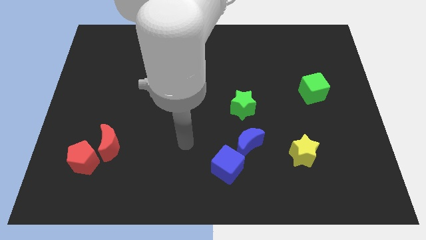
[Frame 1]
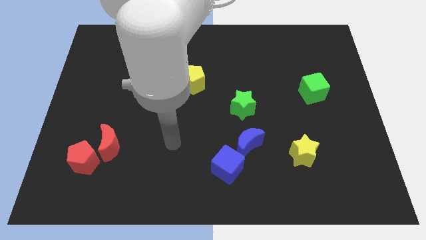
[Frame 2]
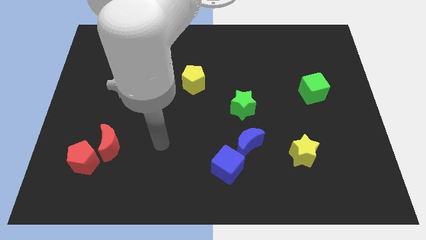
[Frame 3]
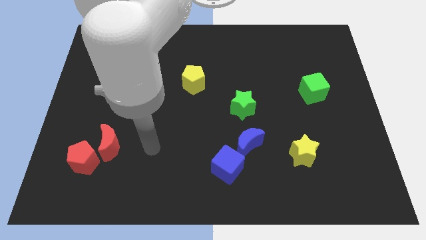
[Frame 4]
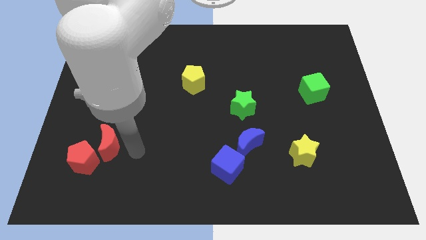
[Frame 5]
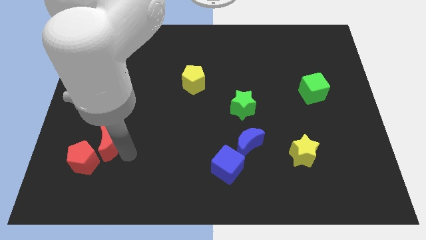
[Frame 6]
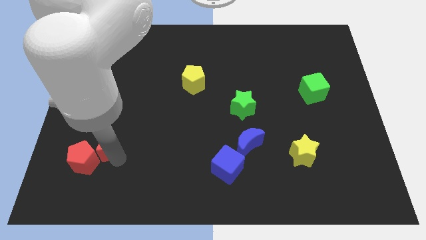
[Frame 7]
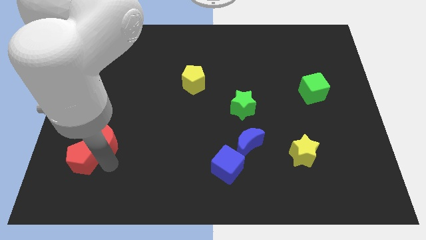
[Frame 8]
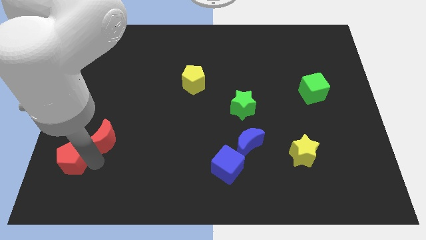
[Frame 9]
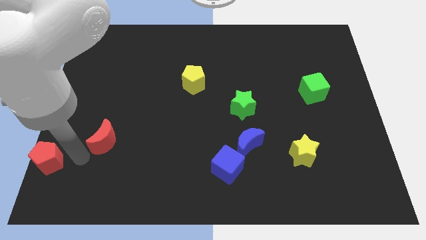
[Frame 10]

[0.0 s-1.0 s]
separate the red moon from the red pentagon

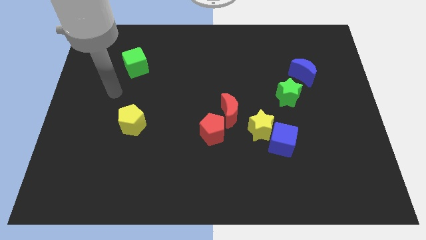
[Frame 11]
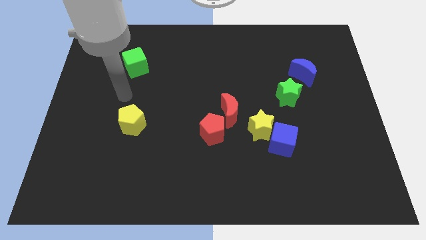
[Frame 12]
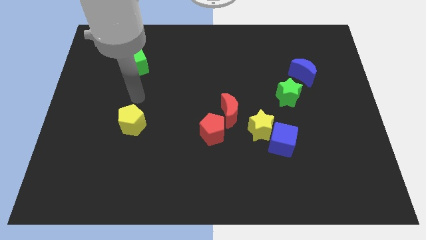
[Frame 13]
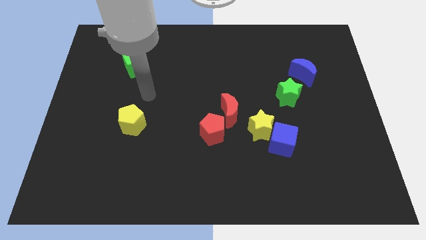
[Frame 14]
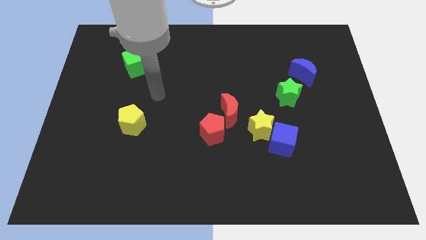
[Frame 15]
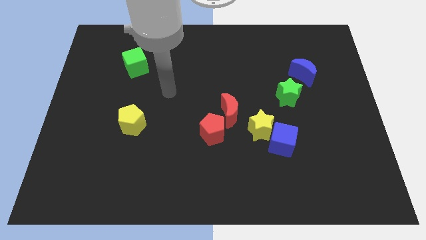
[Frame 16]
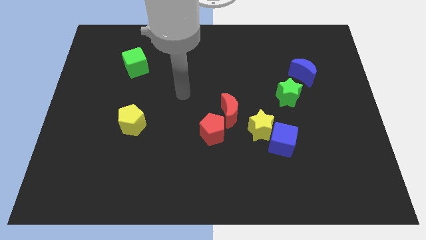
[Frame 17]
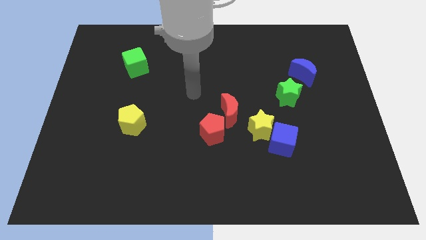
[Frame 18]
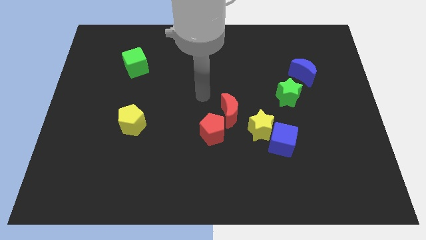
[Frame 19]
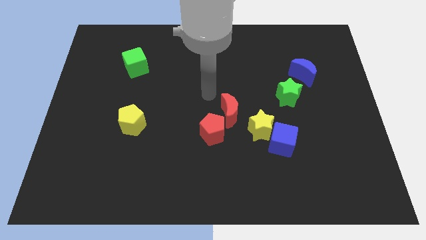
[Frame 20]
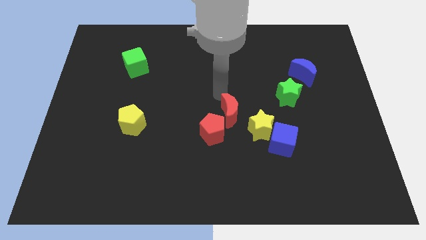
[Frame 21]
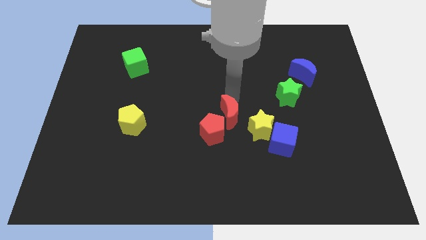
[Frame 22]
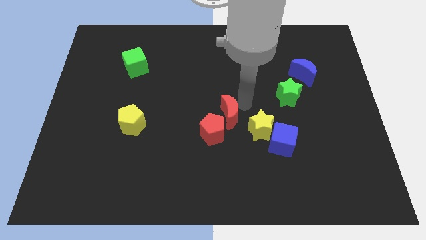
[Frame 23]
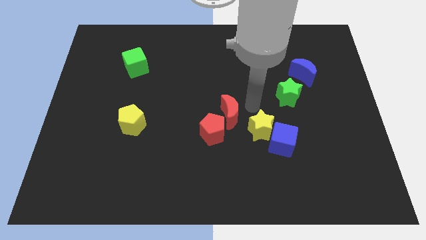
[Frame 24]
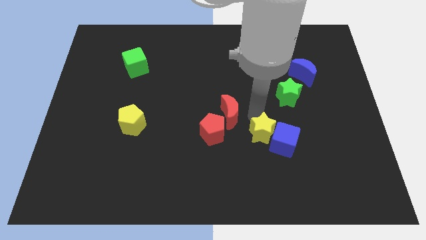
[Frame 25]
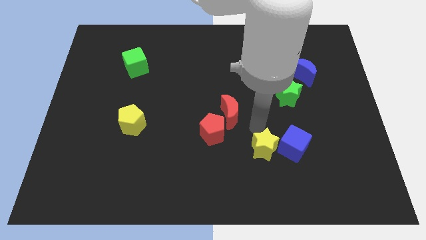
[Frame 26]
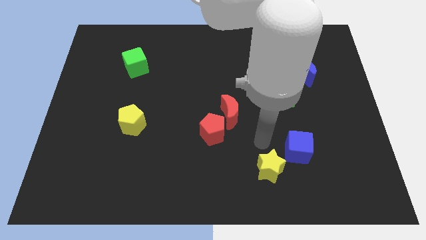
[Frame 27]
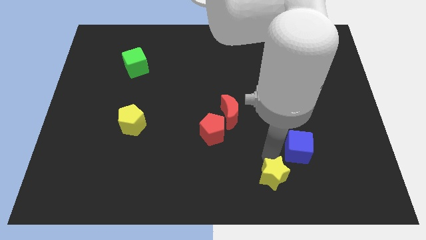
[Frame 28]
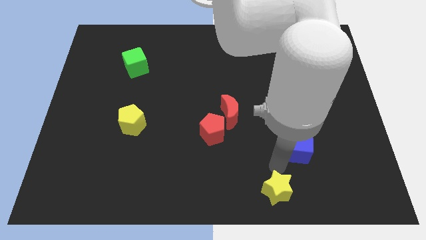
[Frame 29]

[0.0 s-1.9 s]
separate the blue cube from the yellow star

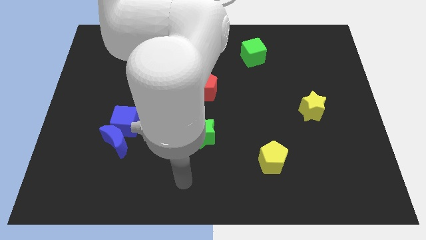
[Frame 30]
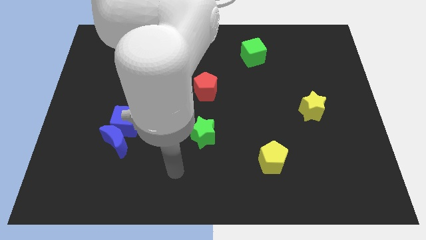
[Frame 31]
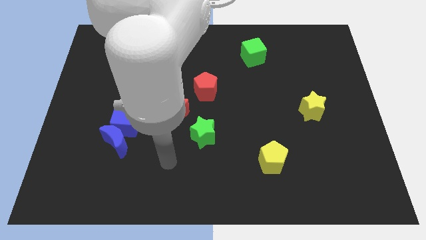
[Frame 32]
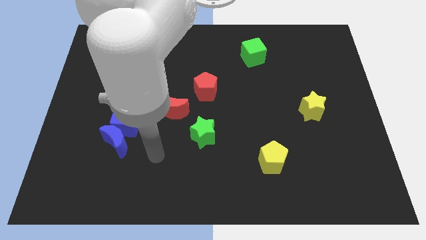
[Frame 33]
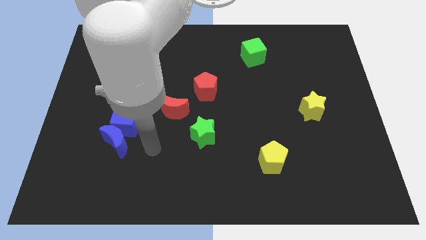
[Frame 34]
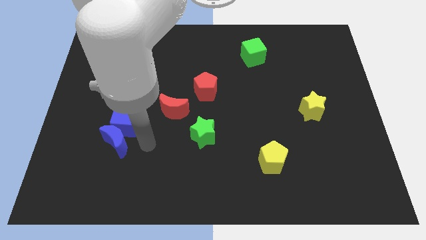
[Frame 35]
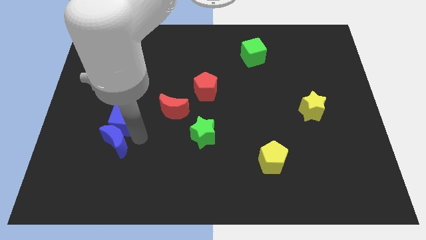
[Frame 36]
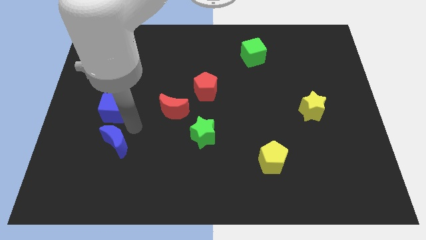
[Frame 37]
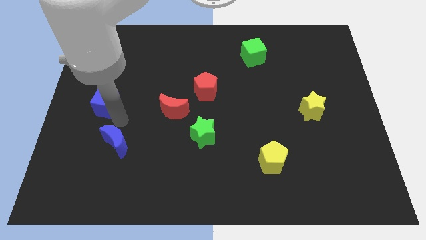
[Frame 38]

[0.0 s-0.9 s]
separate the blue moon from the blue cube

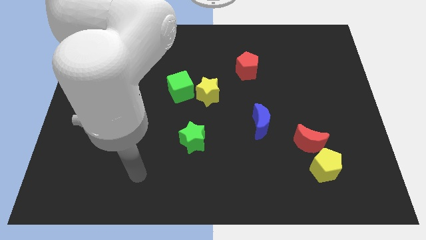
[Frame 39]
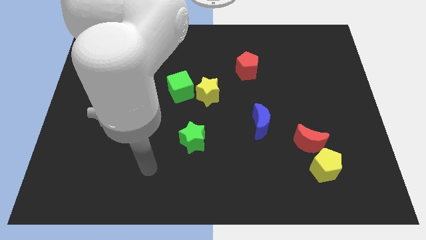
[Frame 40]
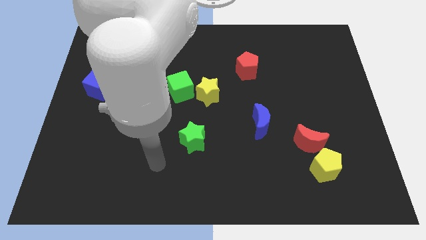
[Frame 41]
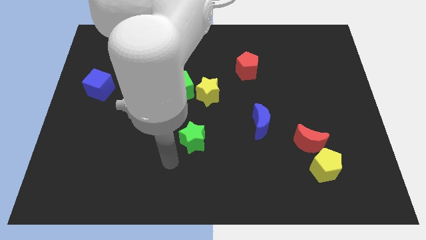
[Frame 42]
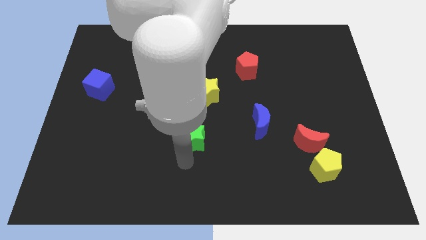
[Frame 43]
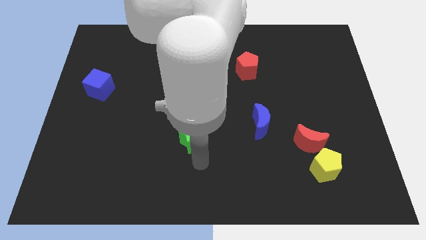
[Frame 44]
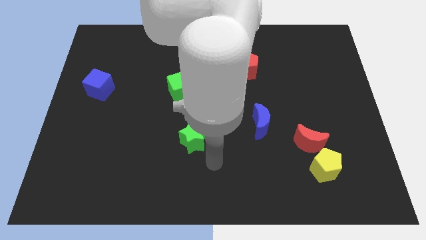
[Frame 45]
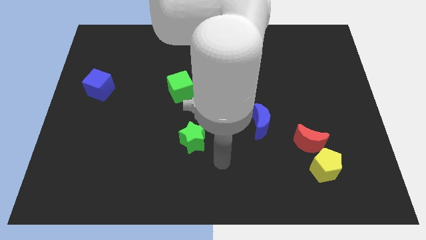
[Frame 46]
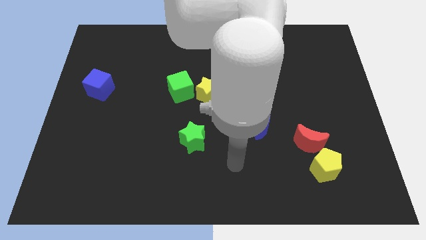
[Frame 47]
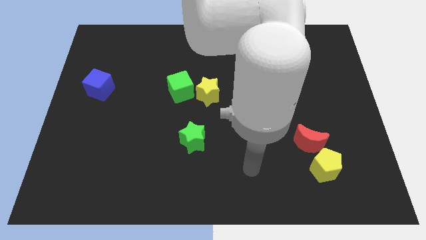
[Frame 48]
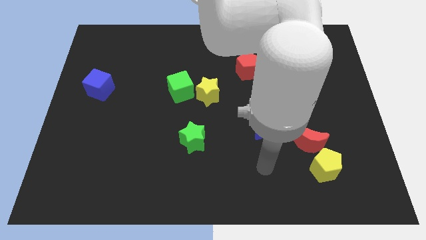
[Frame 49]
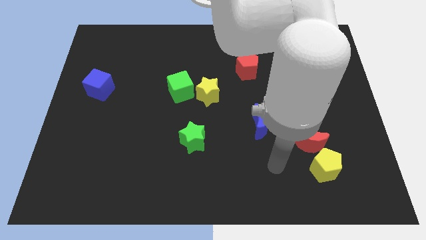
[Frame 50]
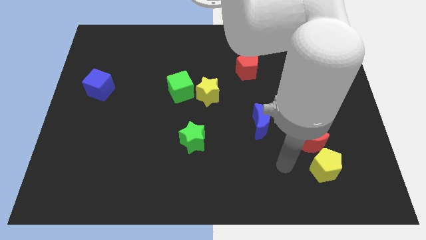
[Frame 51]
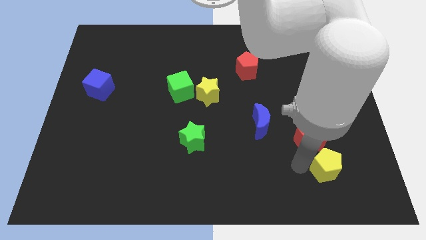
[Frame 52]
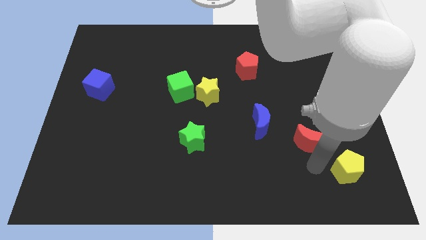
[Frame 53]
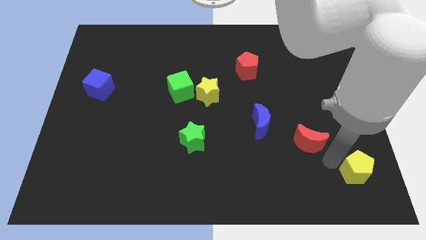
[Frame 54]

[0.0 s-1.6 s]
separate the red moon from the yellow pentagon

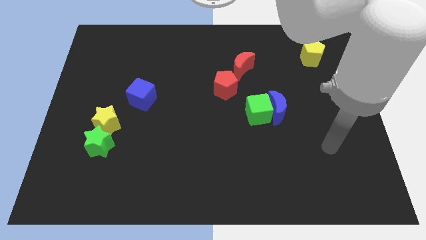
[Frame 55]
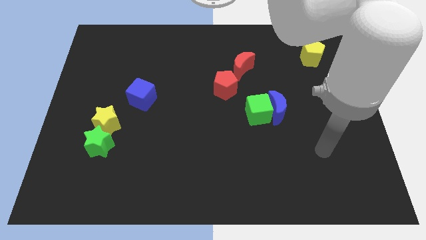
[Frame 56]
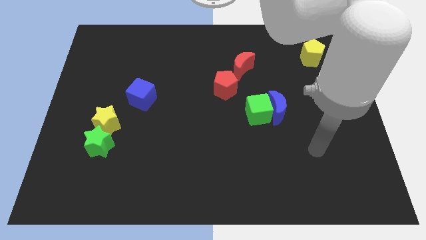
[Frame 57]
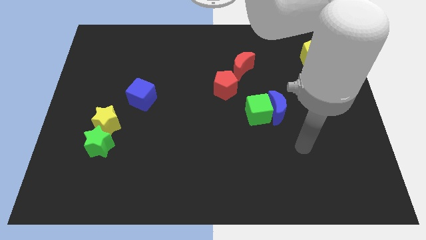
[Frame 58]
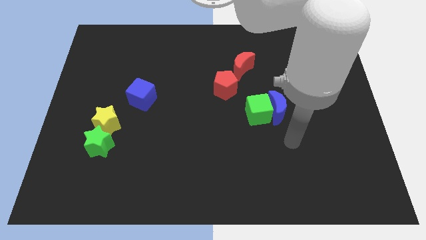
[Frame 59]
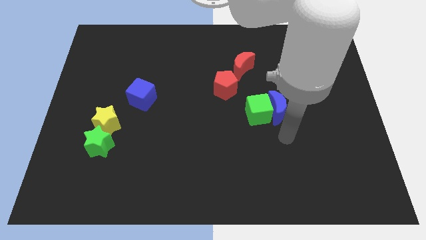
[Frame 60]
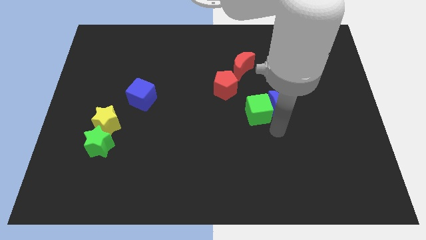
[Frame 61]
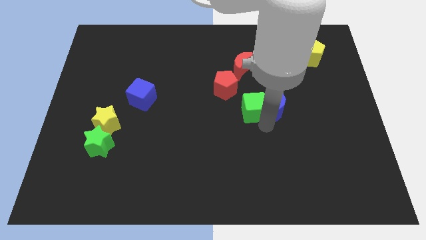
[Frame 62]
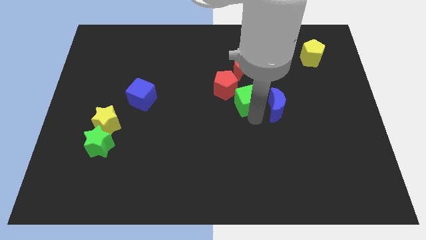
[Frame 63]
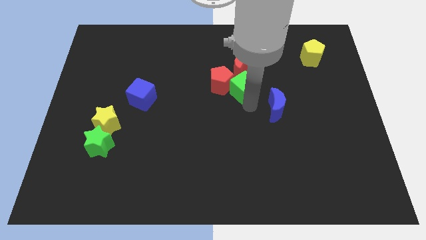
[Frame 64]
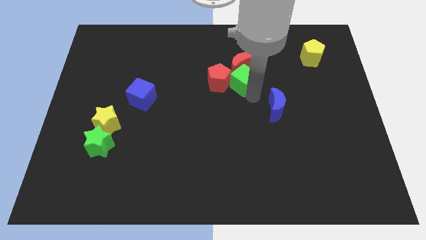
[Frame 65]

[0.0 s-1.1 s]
move the blue moon away from the green cube

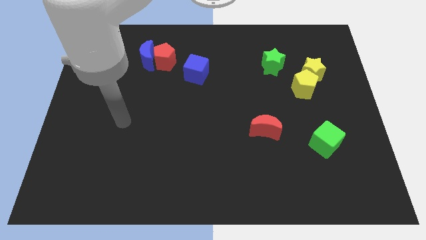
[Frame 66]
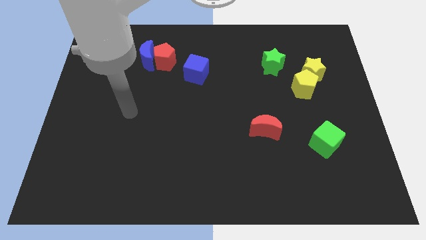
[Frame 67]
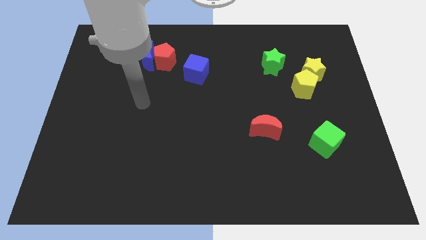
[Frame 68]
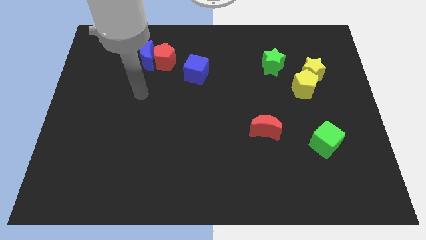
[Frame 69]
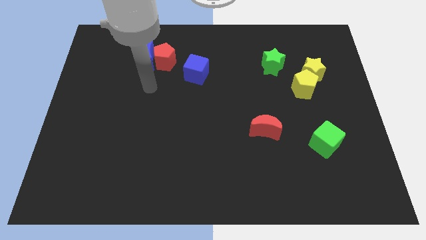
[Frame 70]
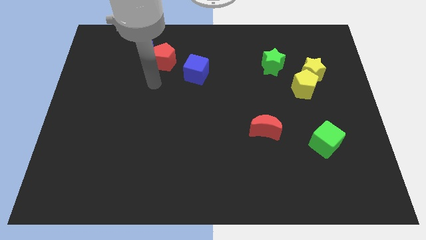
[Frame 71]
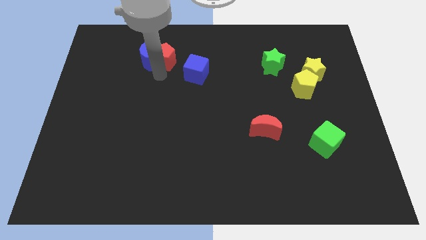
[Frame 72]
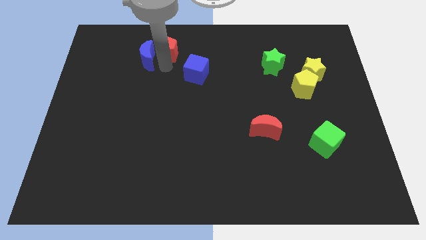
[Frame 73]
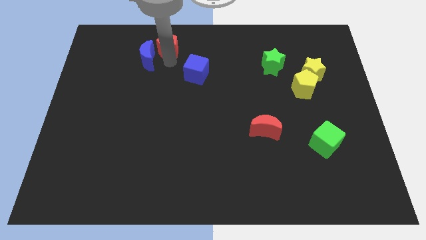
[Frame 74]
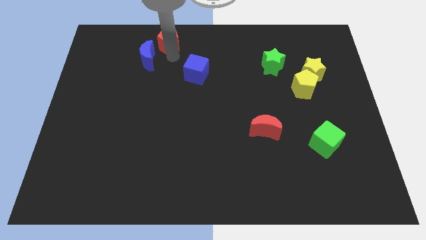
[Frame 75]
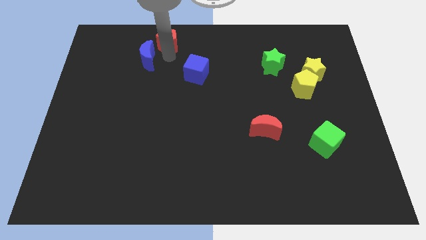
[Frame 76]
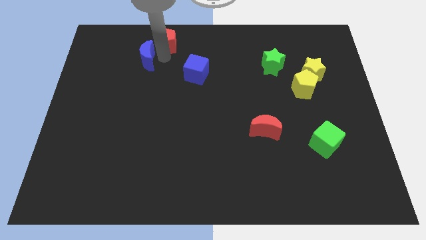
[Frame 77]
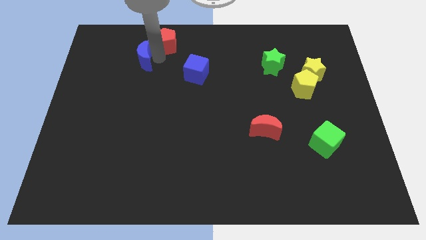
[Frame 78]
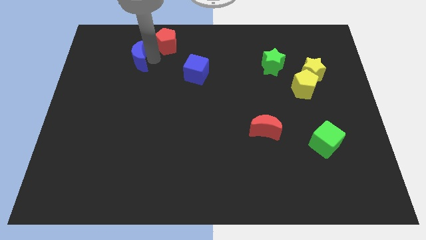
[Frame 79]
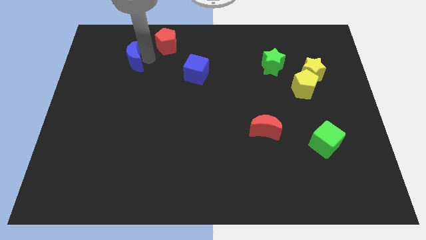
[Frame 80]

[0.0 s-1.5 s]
separate the blue moon from the red pentagon

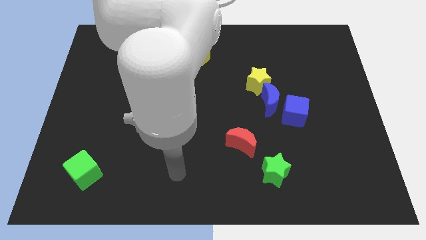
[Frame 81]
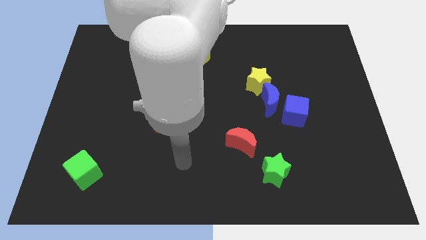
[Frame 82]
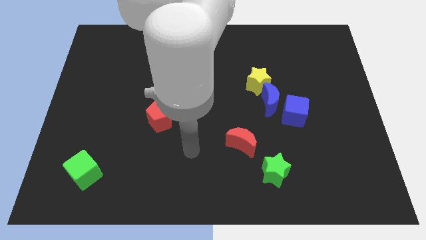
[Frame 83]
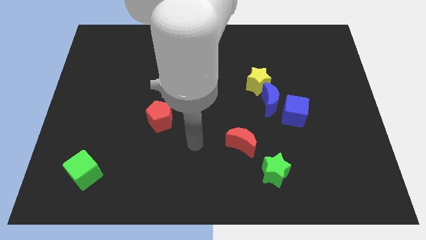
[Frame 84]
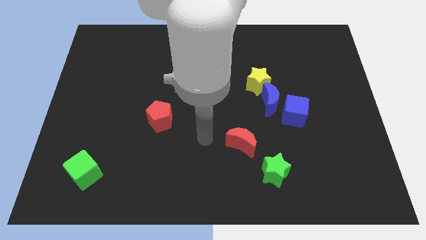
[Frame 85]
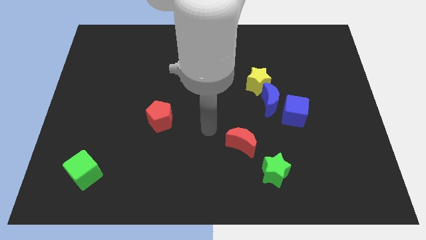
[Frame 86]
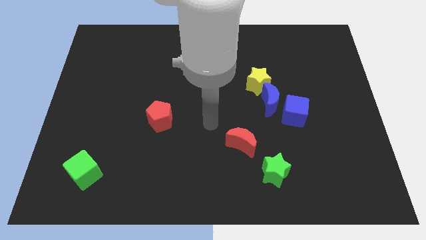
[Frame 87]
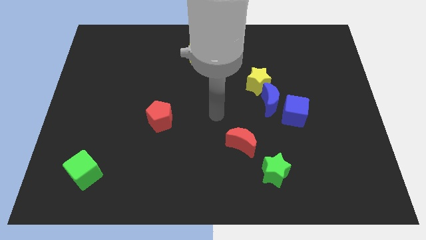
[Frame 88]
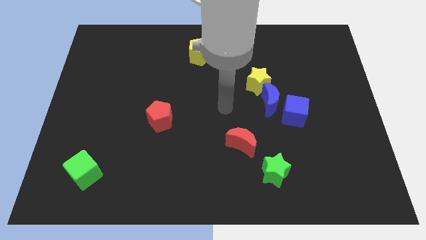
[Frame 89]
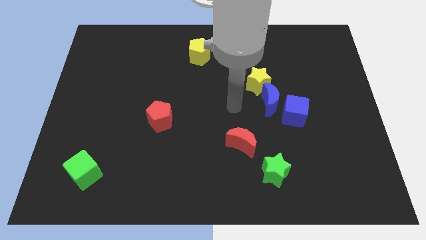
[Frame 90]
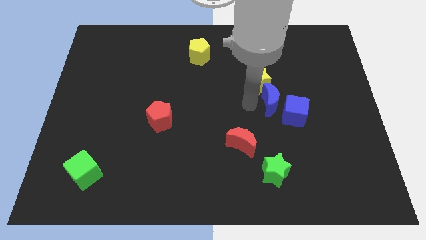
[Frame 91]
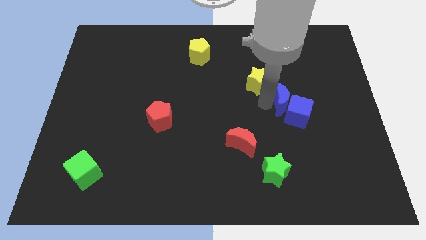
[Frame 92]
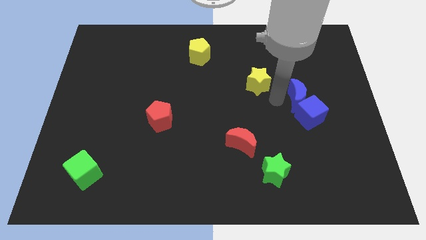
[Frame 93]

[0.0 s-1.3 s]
pull the yellow star apart from the blue moon
